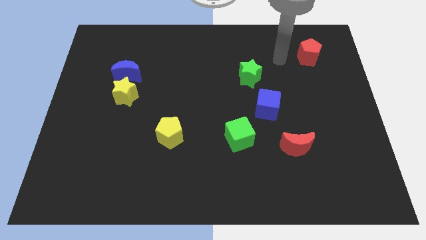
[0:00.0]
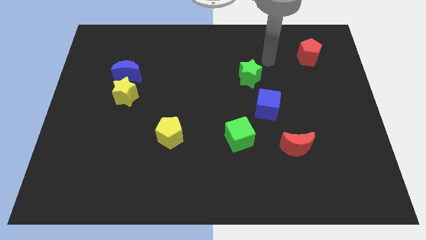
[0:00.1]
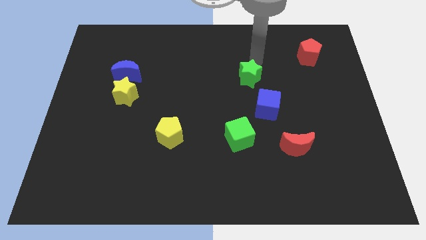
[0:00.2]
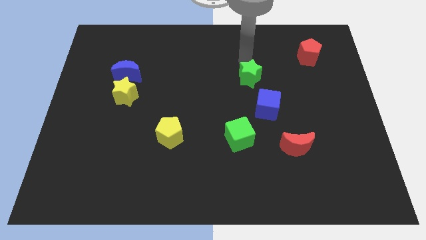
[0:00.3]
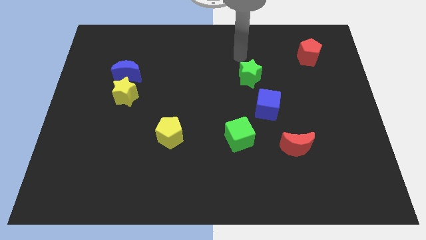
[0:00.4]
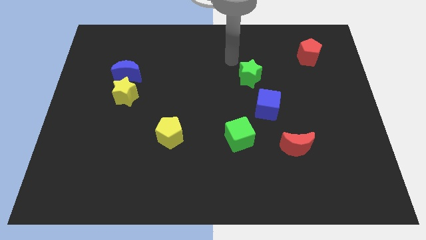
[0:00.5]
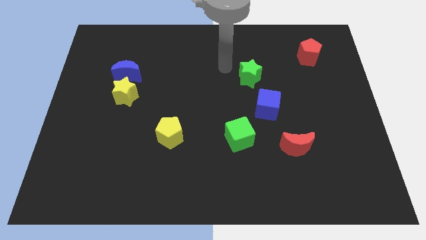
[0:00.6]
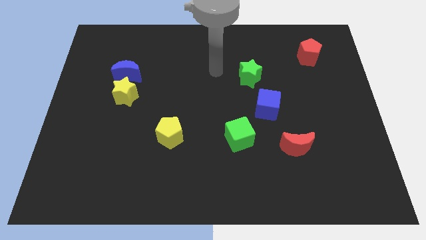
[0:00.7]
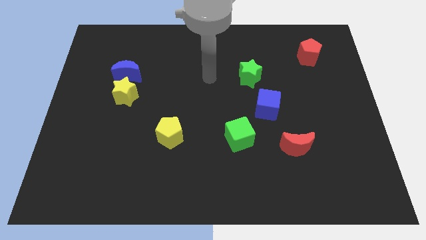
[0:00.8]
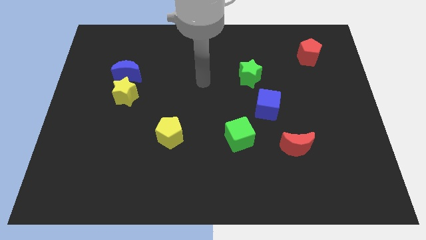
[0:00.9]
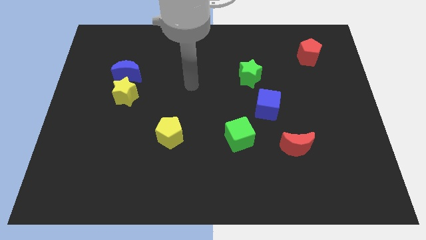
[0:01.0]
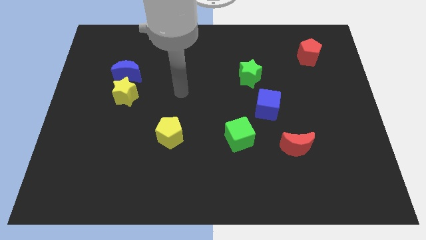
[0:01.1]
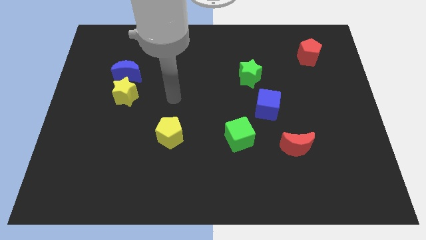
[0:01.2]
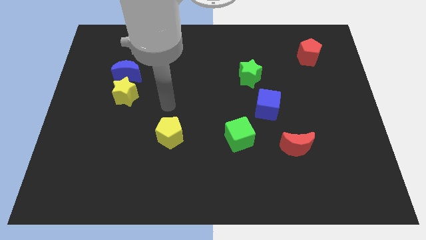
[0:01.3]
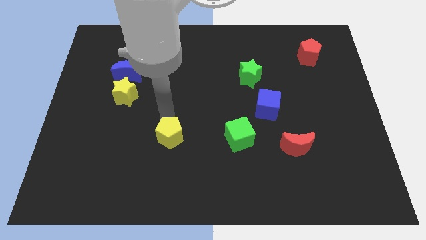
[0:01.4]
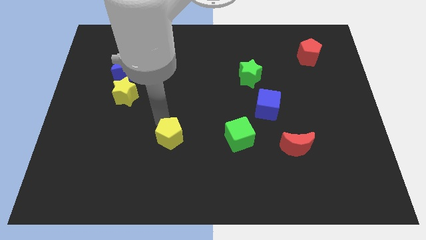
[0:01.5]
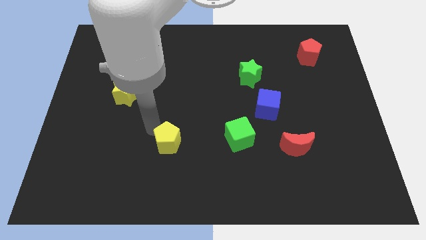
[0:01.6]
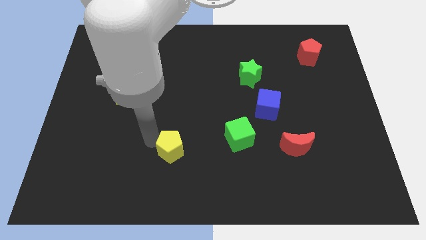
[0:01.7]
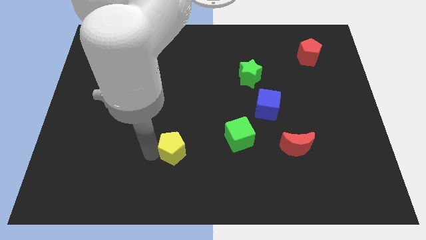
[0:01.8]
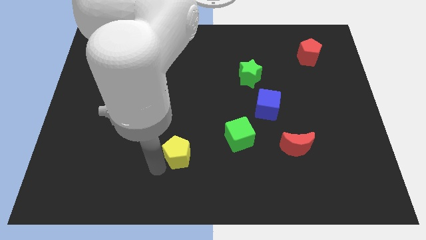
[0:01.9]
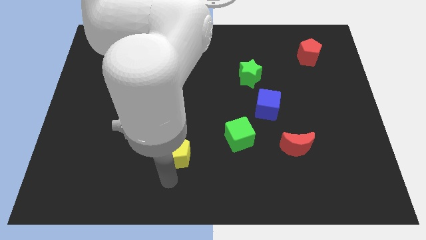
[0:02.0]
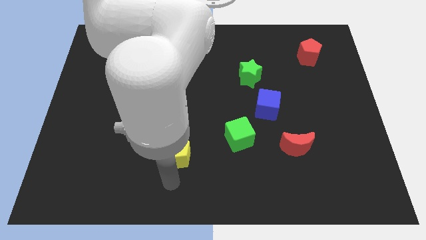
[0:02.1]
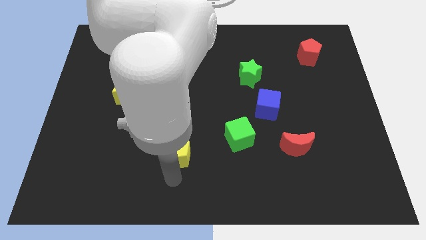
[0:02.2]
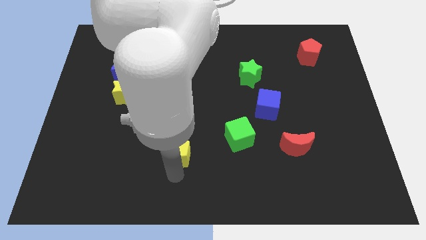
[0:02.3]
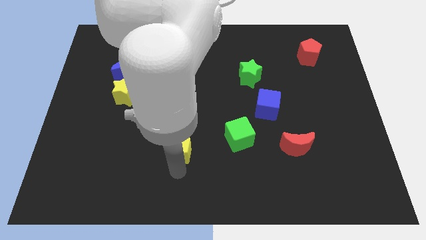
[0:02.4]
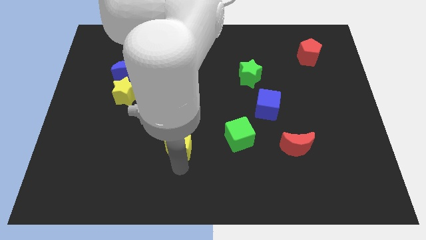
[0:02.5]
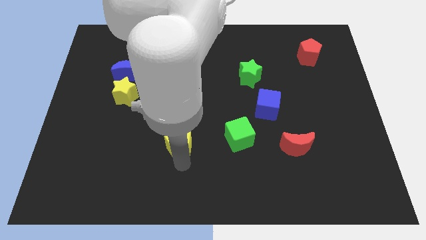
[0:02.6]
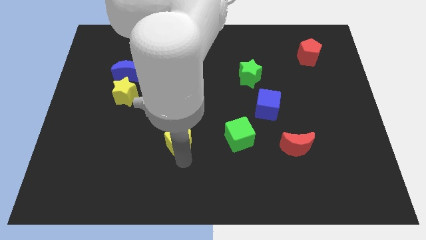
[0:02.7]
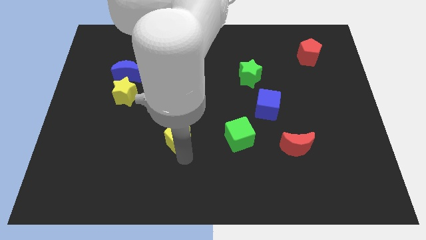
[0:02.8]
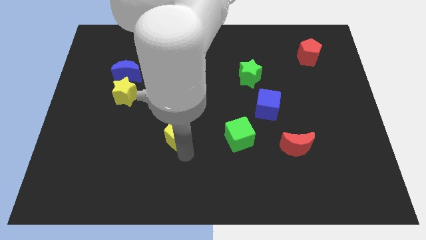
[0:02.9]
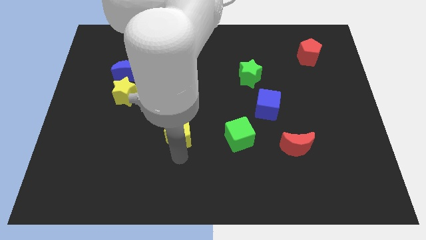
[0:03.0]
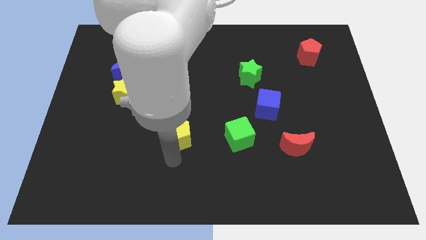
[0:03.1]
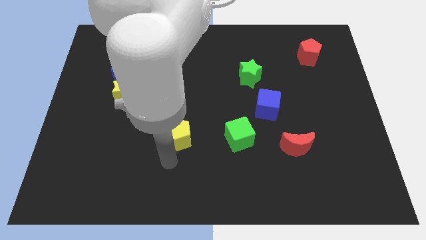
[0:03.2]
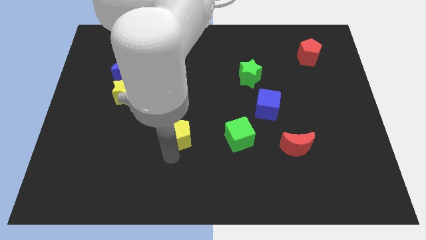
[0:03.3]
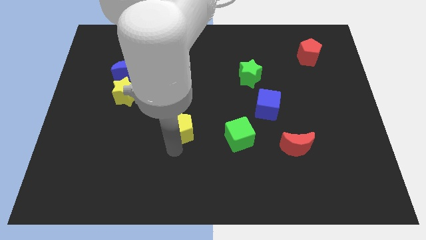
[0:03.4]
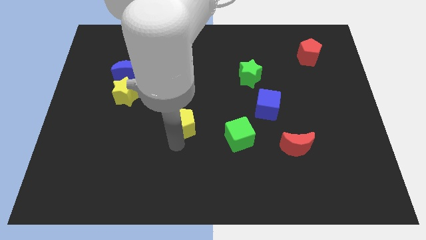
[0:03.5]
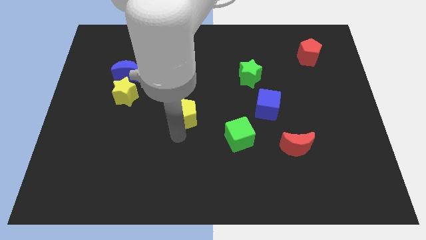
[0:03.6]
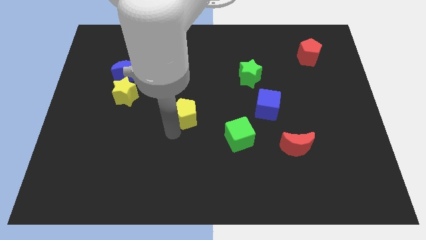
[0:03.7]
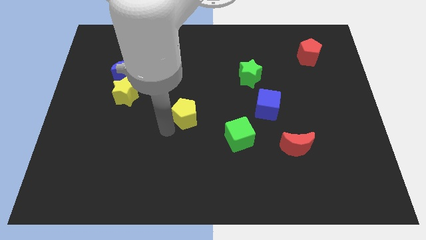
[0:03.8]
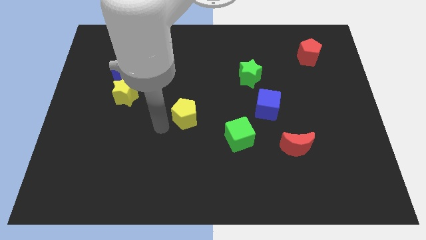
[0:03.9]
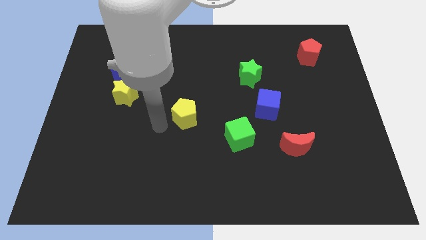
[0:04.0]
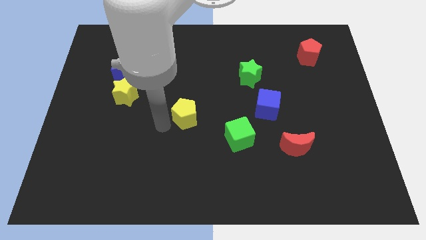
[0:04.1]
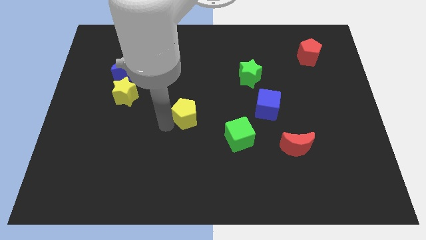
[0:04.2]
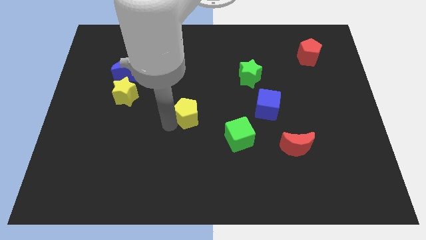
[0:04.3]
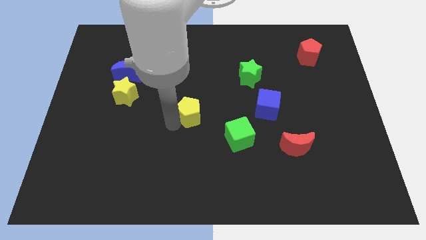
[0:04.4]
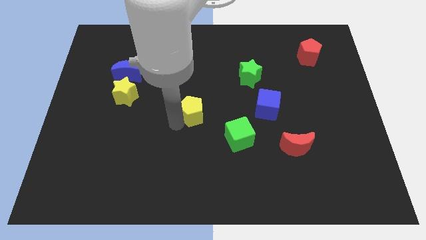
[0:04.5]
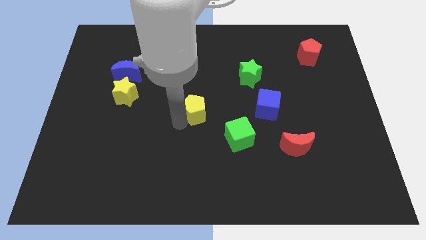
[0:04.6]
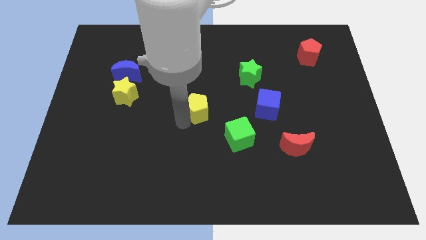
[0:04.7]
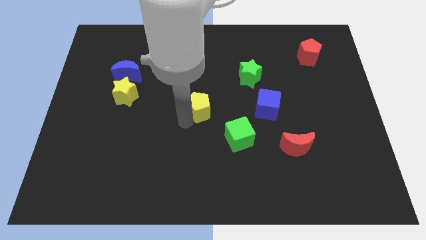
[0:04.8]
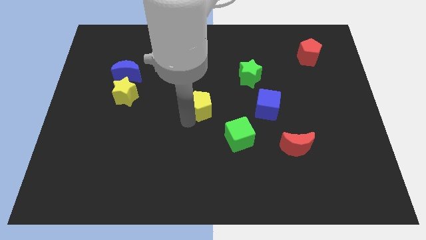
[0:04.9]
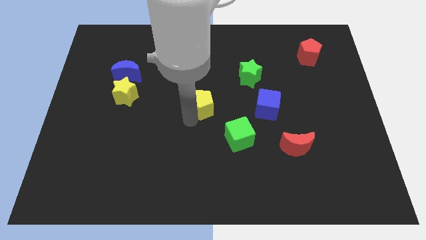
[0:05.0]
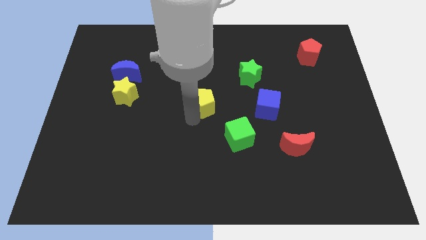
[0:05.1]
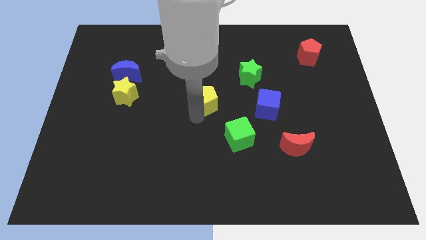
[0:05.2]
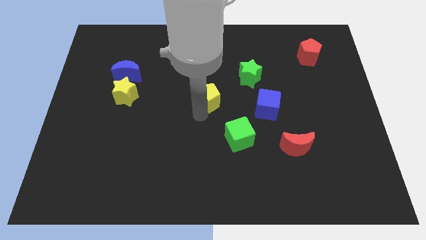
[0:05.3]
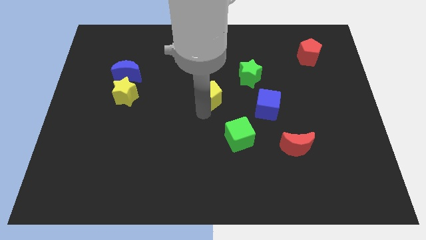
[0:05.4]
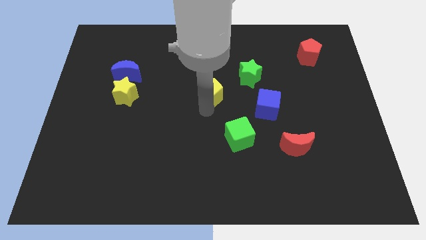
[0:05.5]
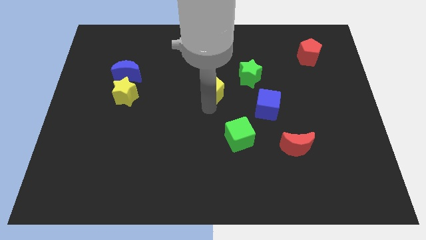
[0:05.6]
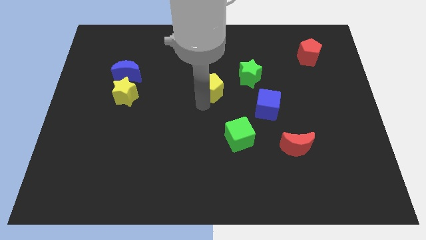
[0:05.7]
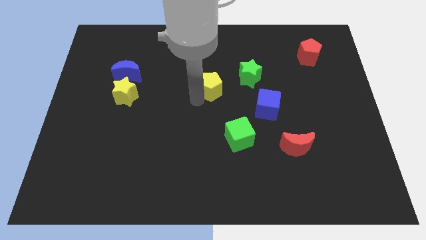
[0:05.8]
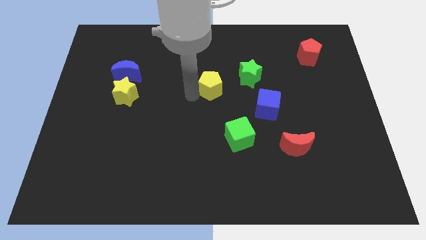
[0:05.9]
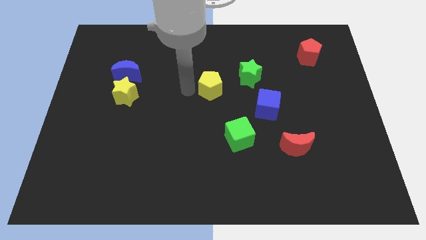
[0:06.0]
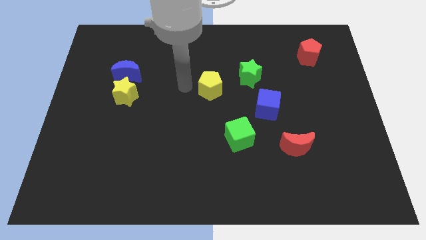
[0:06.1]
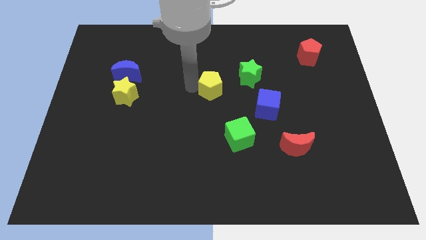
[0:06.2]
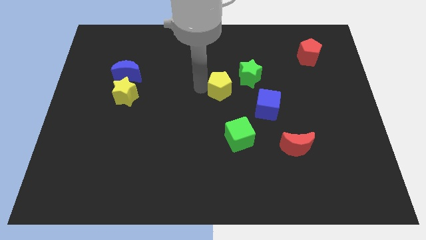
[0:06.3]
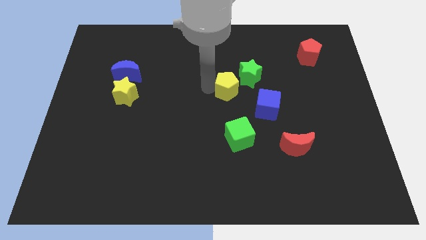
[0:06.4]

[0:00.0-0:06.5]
put the yellow pentagon diagonally up and to the left of the blue cube
